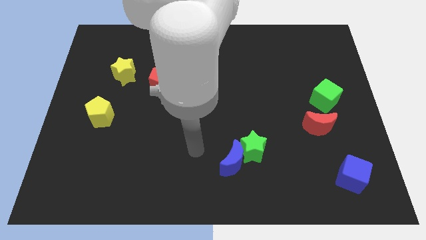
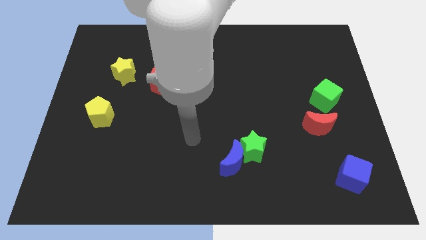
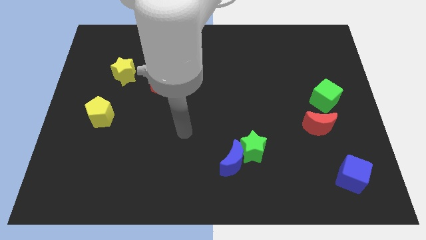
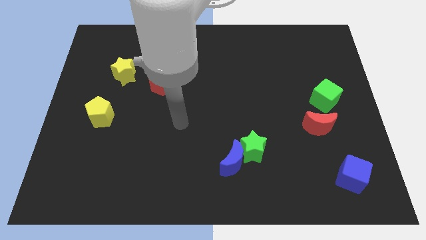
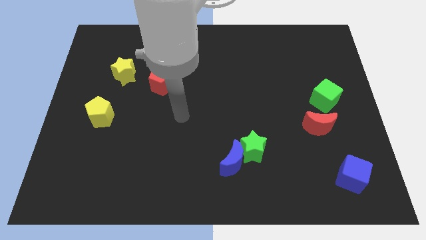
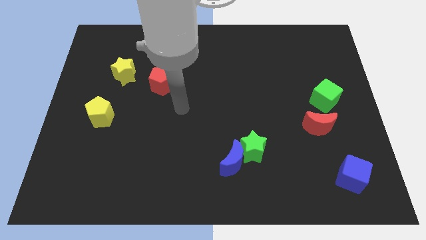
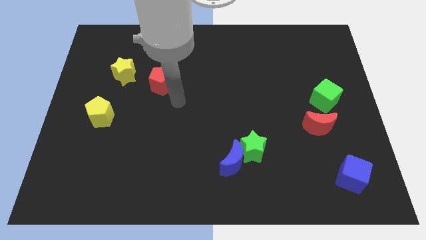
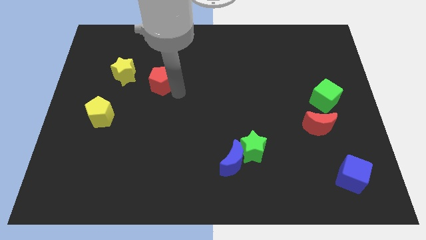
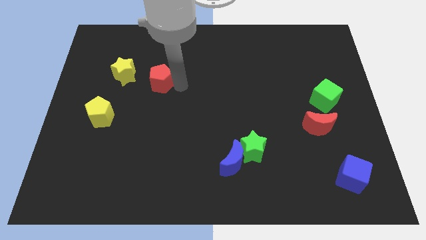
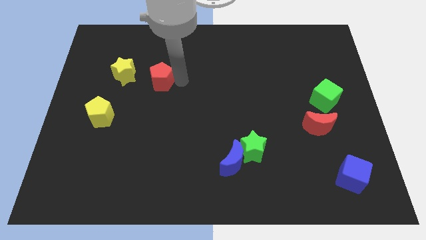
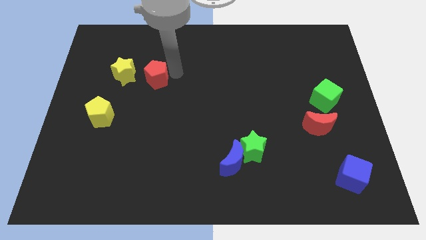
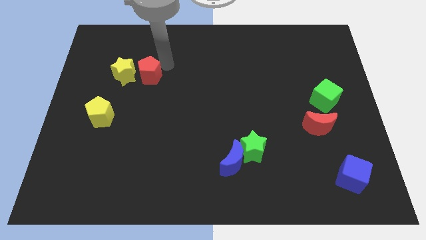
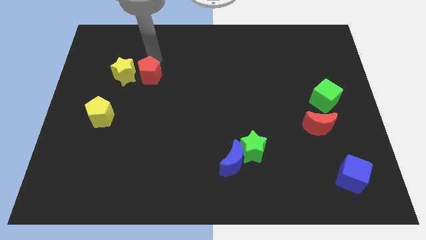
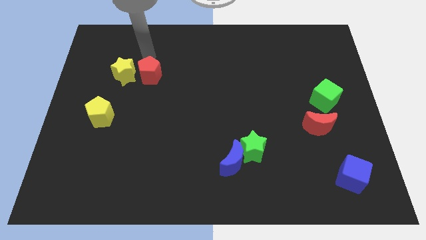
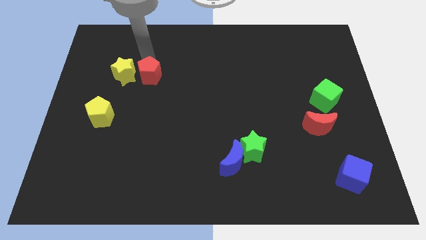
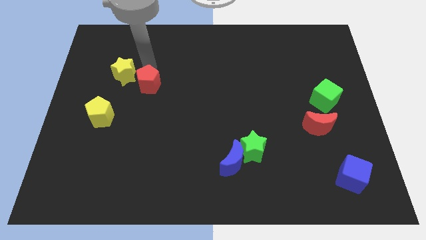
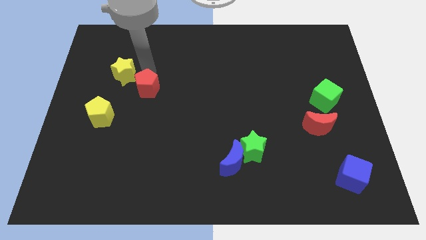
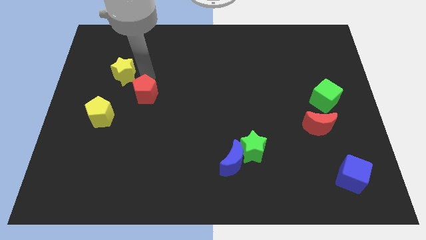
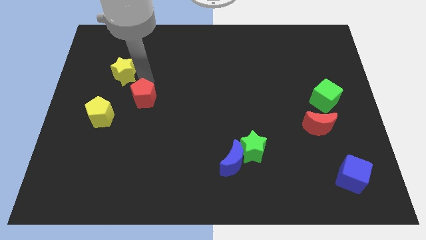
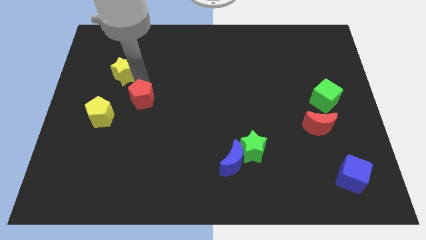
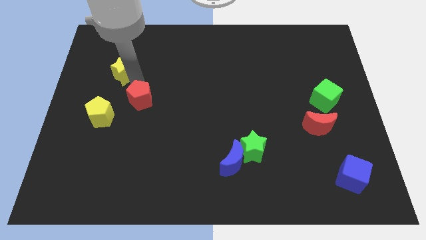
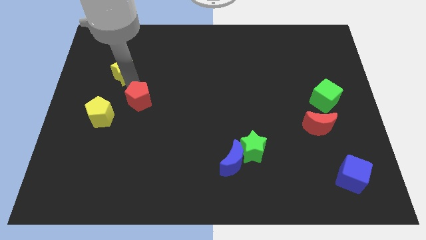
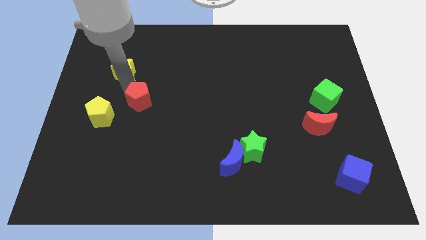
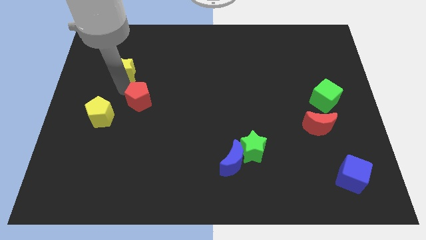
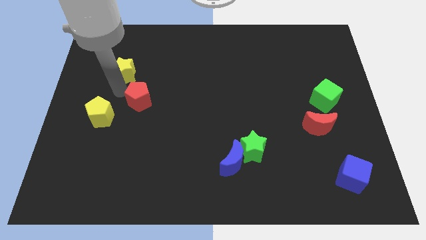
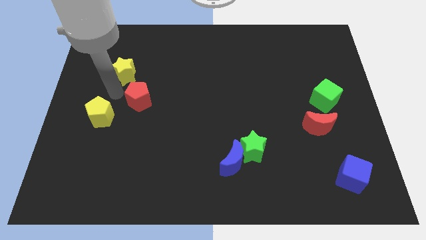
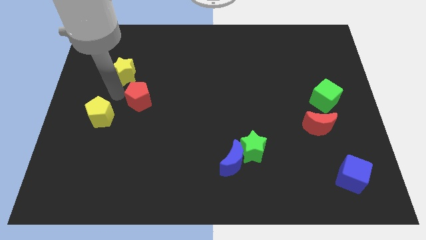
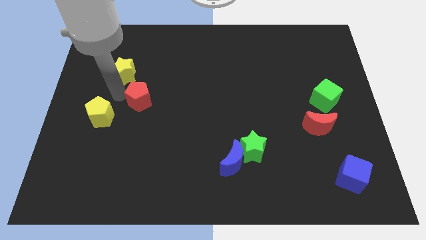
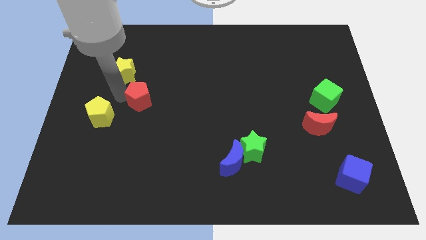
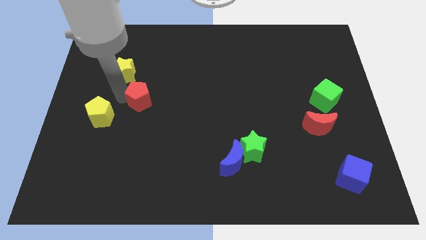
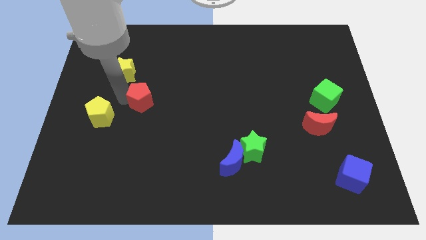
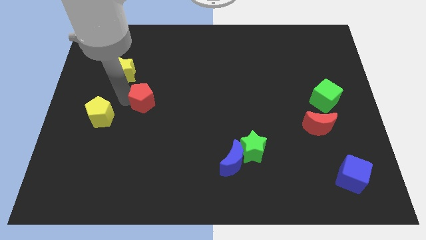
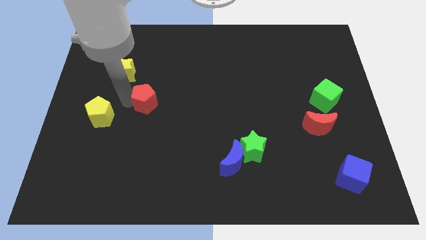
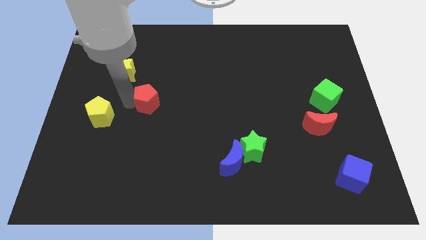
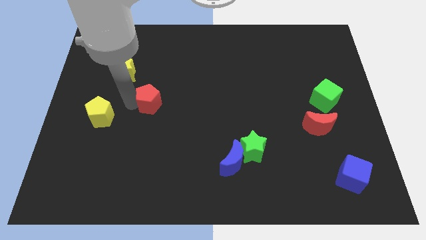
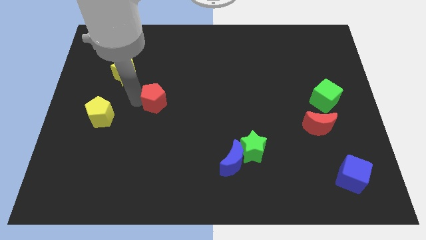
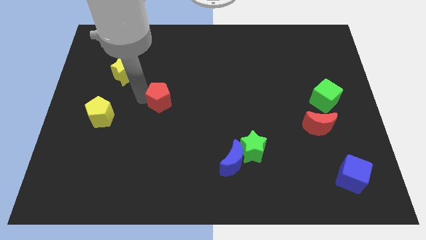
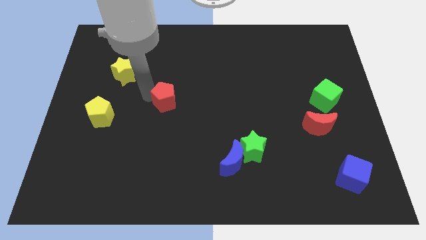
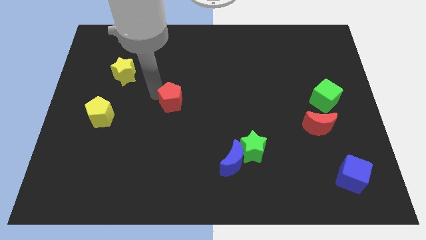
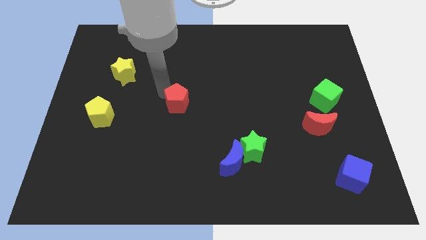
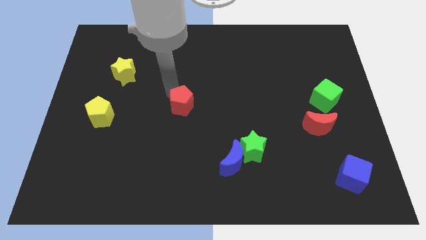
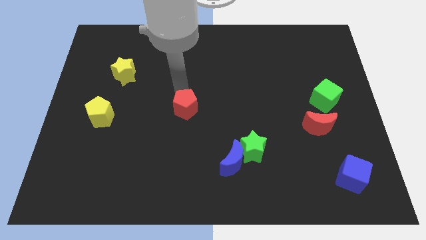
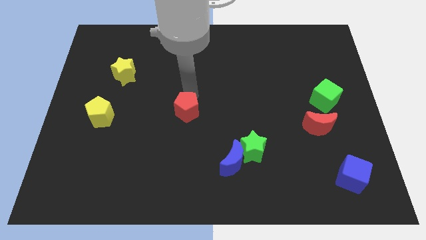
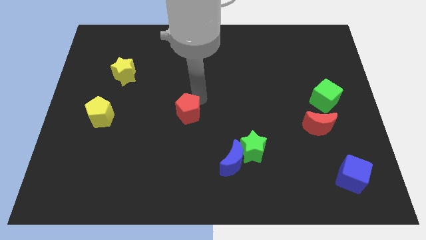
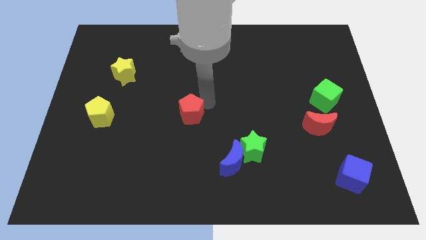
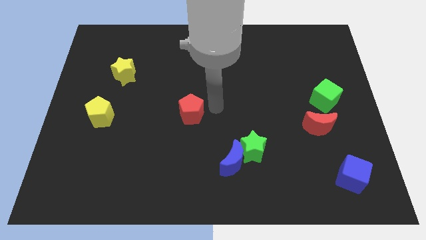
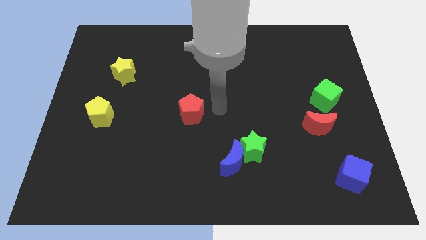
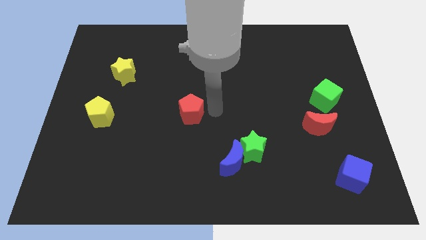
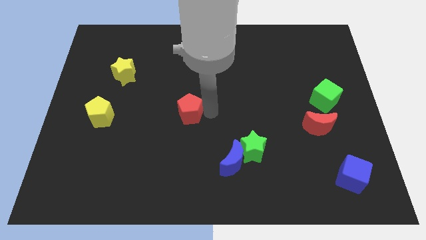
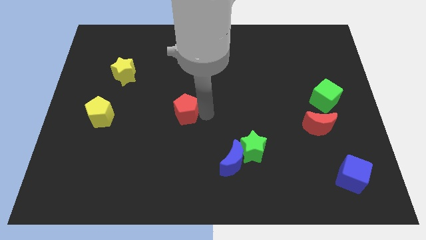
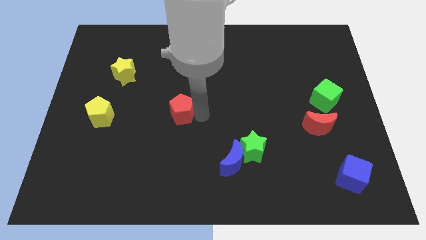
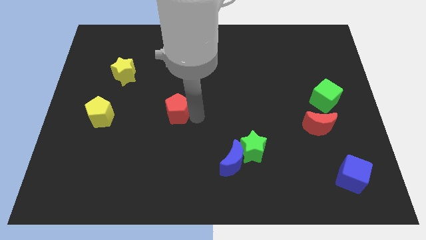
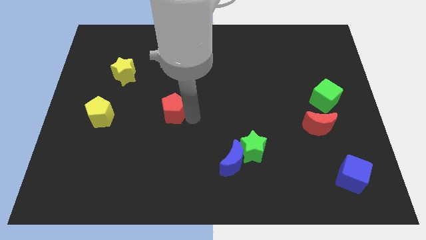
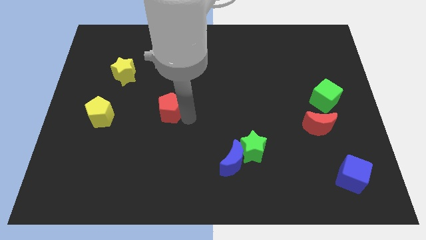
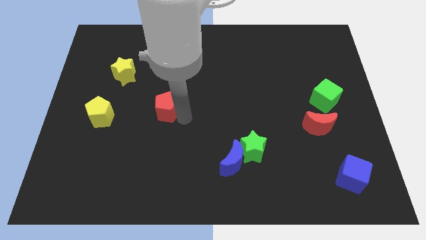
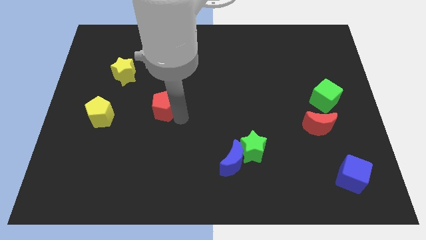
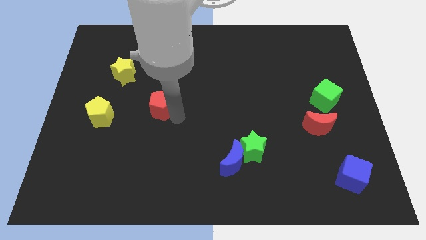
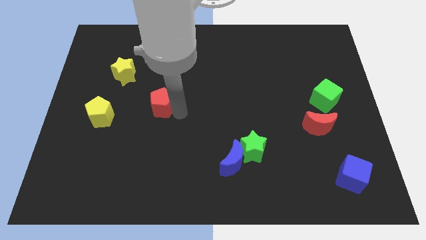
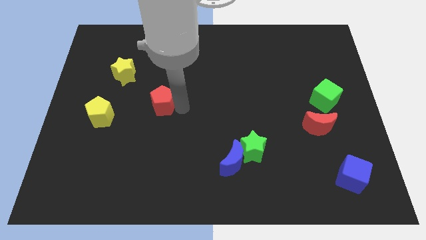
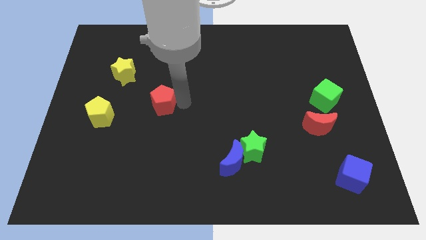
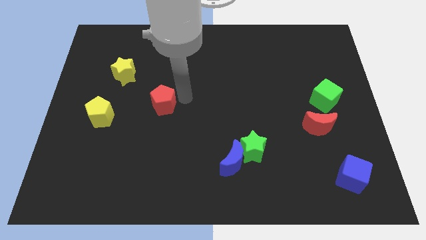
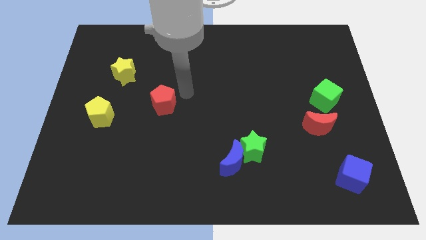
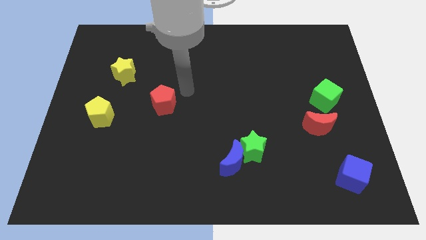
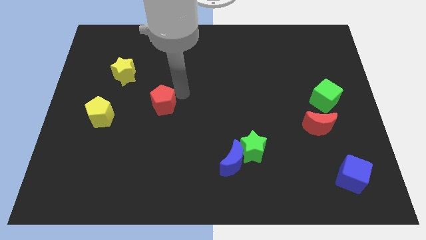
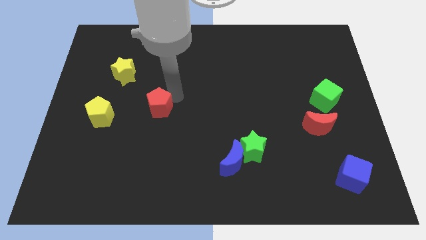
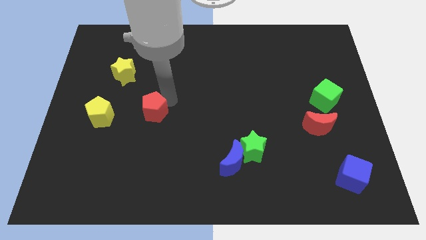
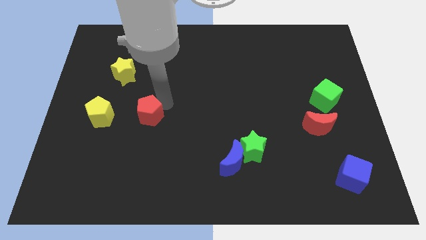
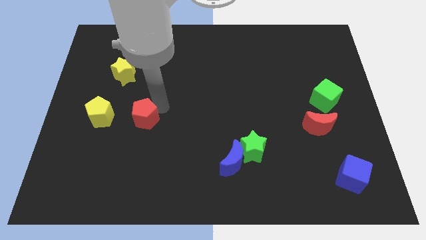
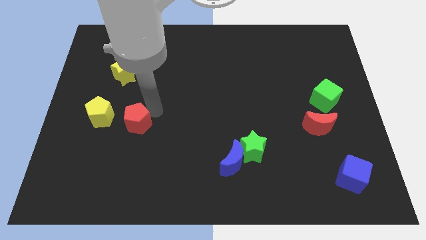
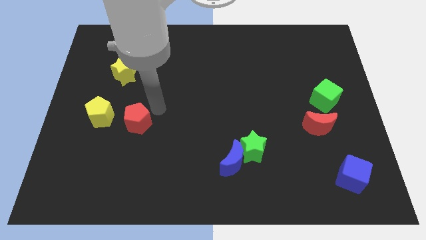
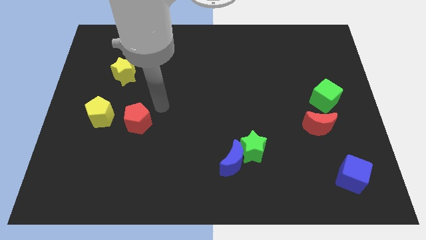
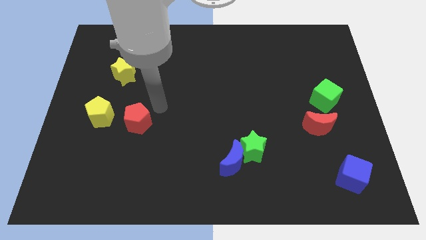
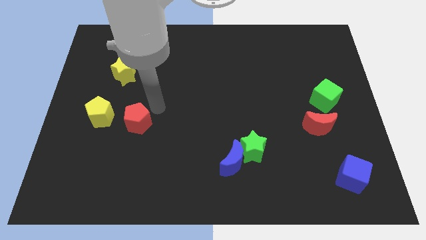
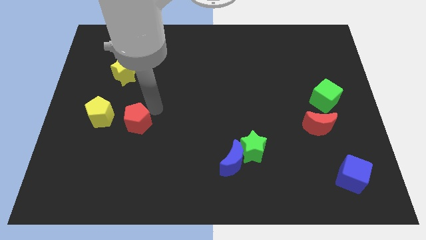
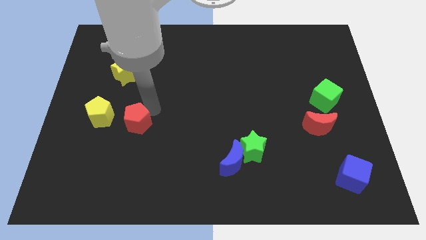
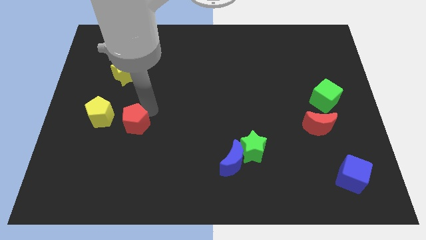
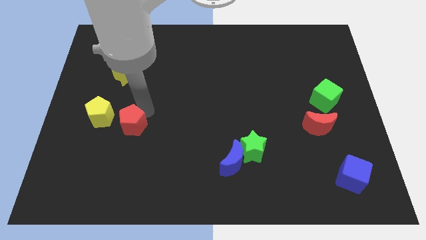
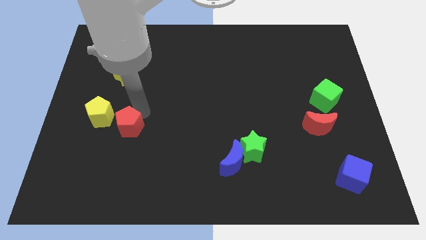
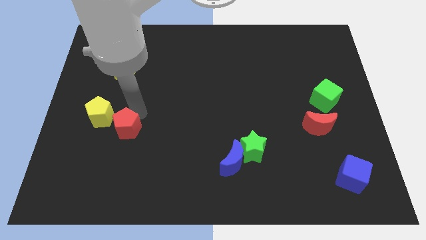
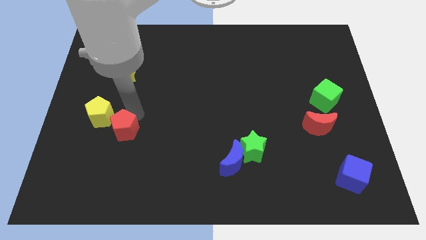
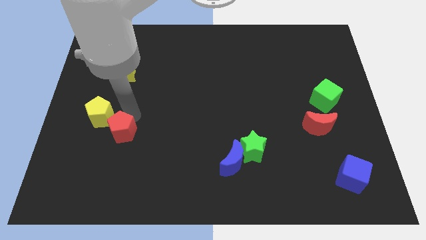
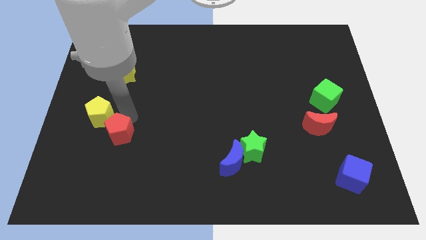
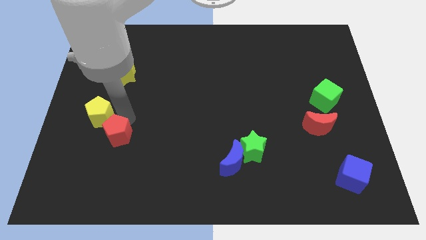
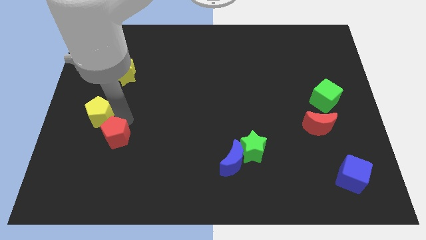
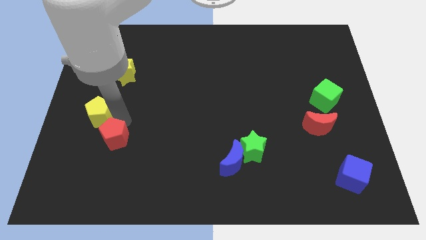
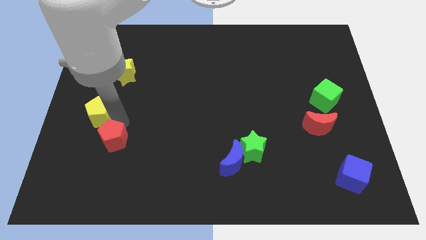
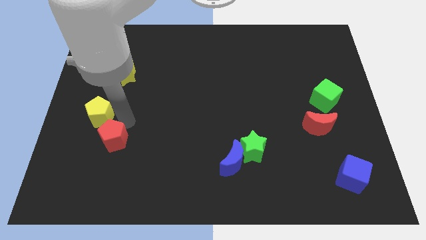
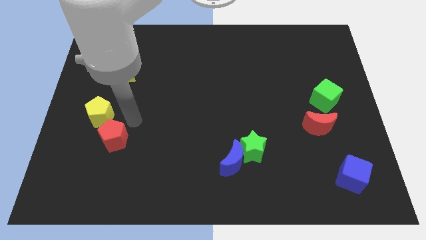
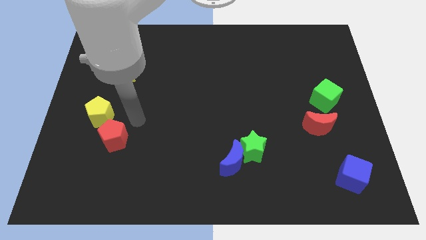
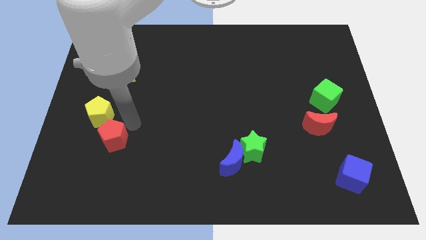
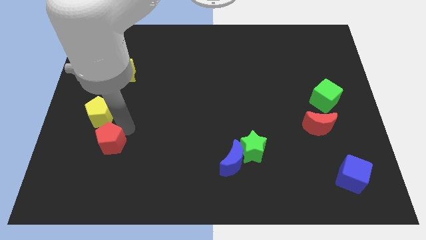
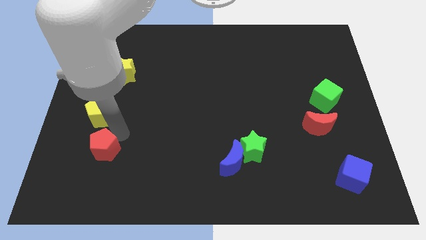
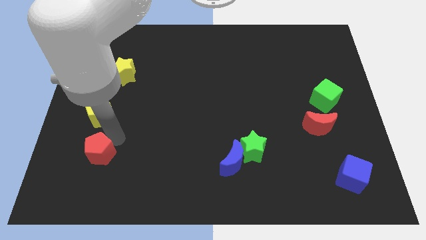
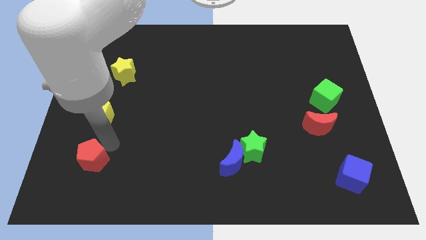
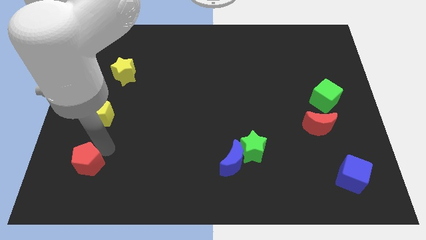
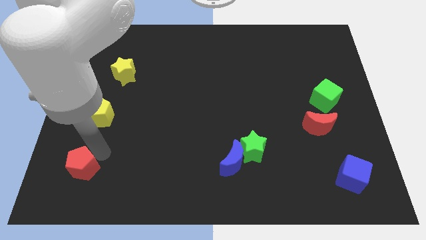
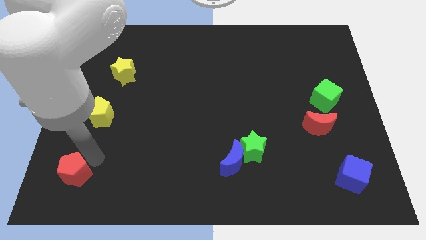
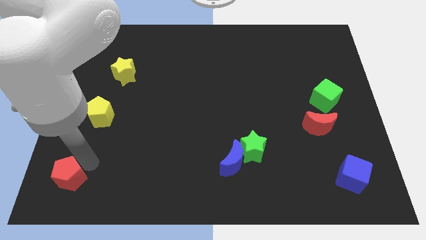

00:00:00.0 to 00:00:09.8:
push the red pentagon to the bottom left of the board
